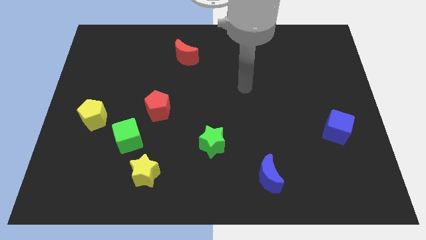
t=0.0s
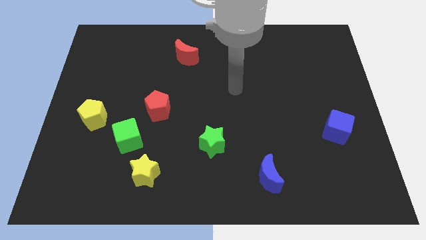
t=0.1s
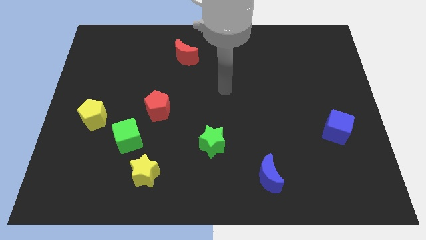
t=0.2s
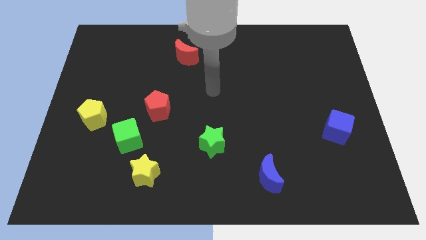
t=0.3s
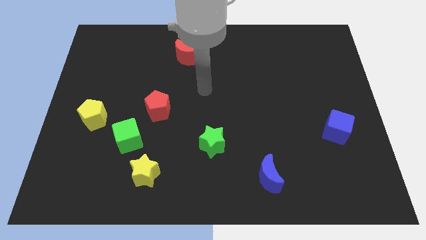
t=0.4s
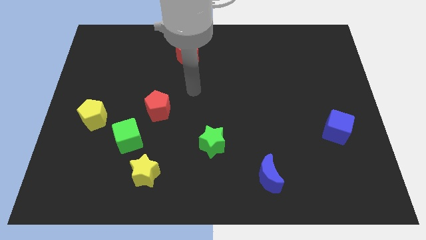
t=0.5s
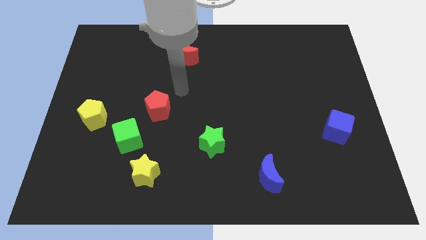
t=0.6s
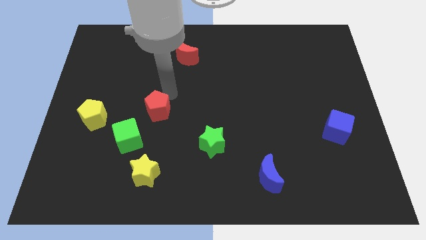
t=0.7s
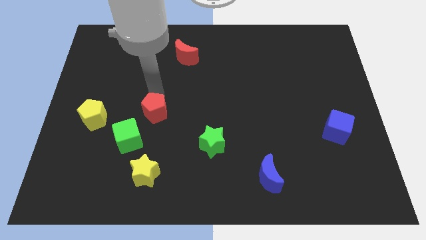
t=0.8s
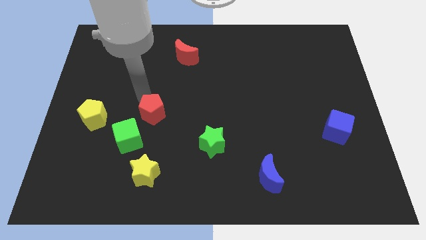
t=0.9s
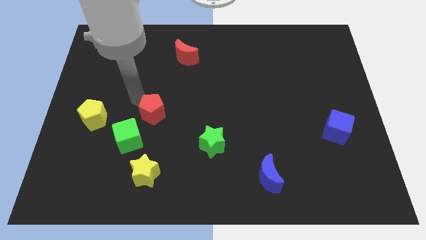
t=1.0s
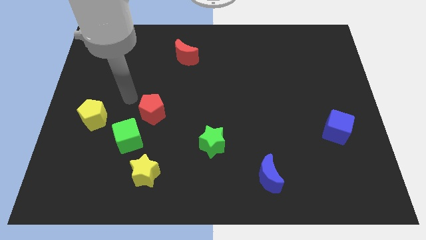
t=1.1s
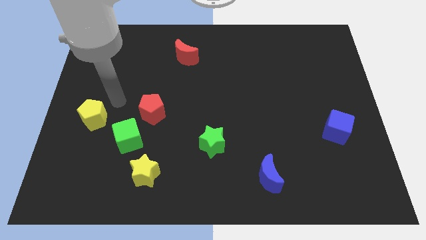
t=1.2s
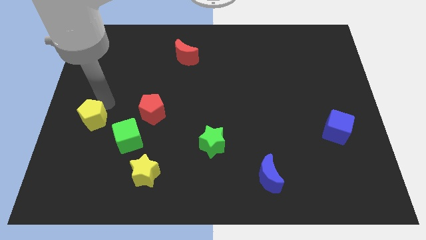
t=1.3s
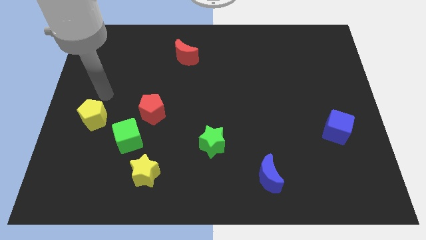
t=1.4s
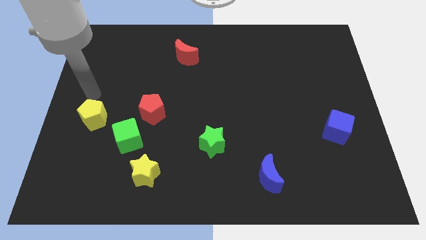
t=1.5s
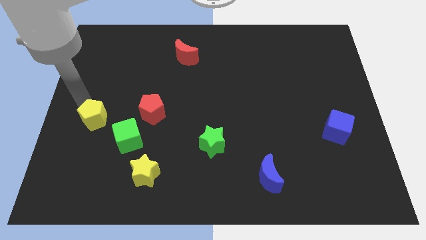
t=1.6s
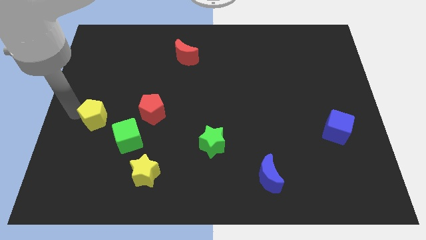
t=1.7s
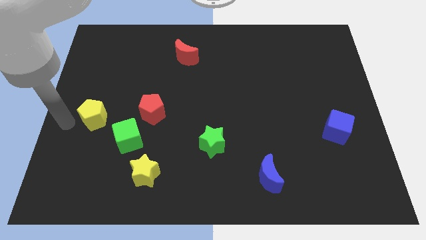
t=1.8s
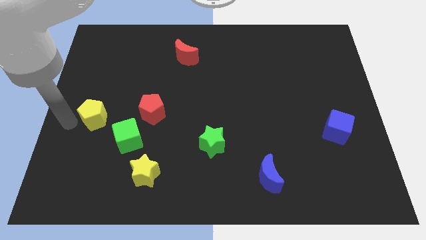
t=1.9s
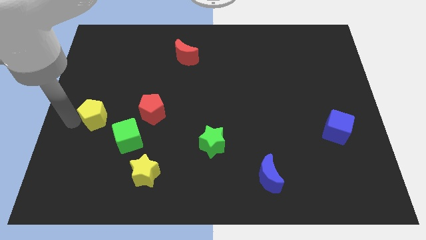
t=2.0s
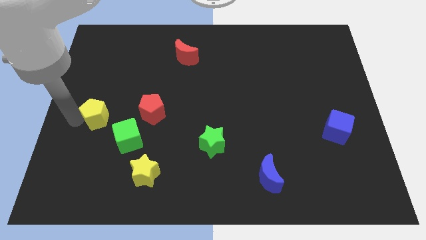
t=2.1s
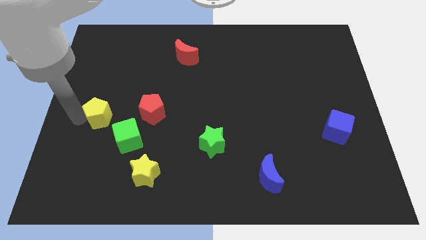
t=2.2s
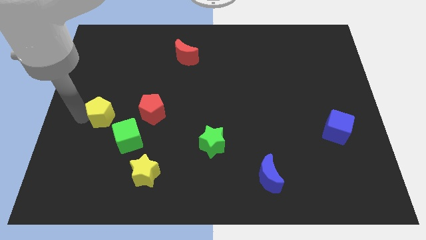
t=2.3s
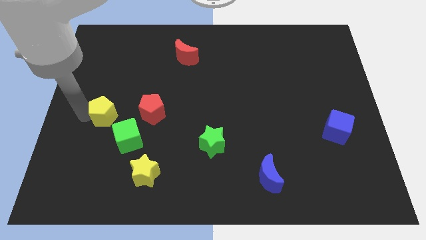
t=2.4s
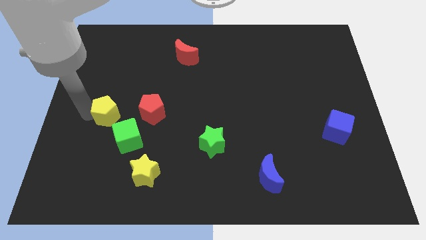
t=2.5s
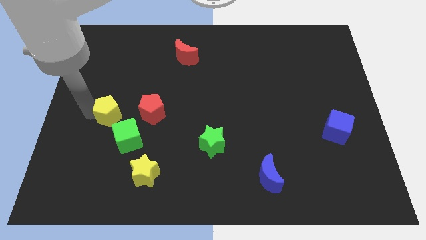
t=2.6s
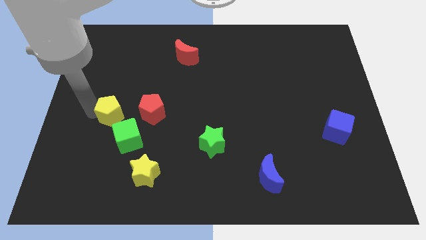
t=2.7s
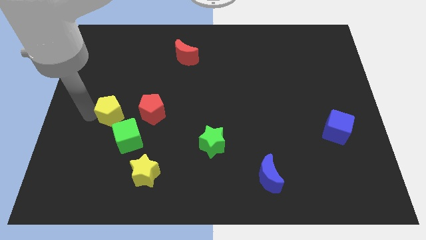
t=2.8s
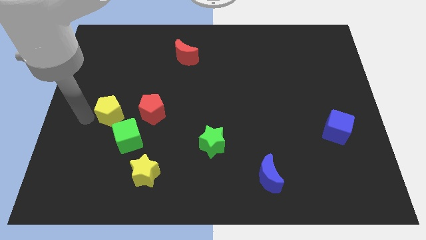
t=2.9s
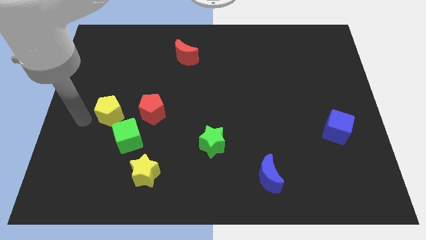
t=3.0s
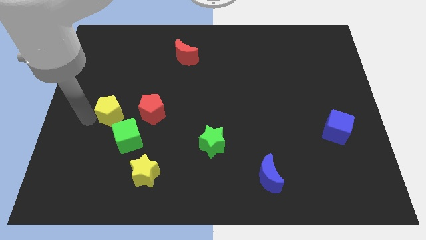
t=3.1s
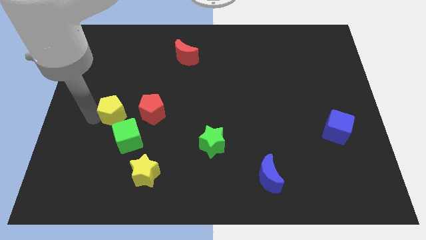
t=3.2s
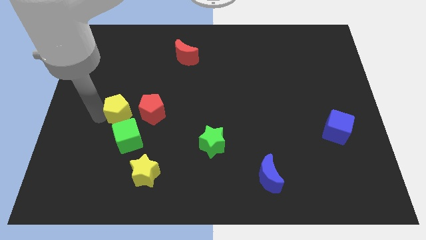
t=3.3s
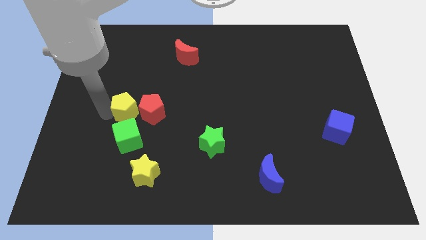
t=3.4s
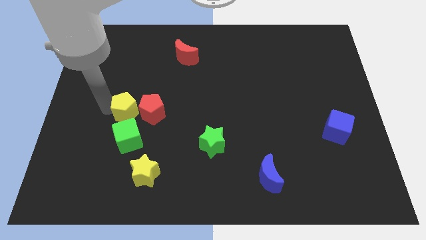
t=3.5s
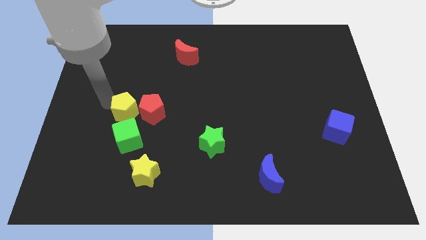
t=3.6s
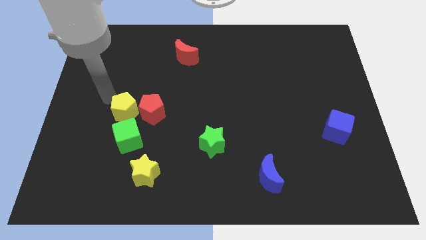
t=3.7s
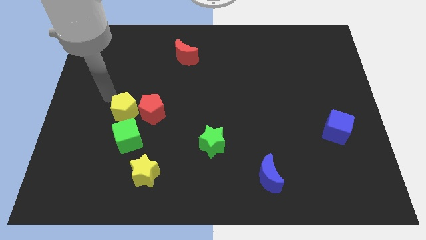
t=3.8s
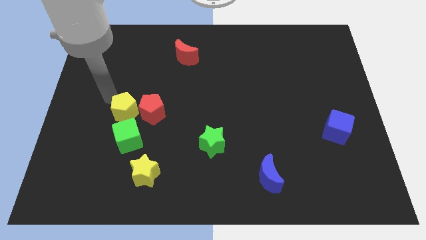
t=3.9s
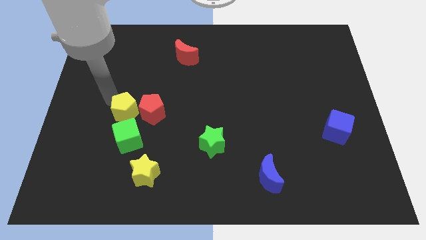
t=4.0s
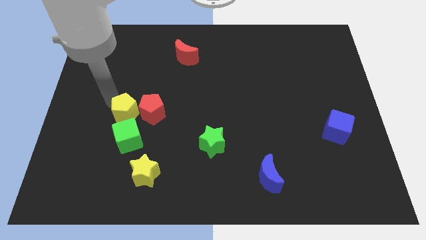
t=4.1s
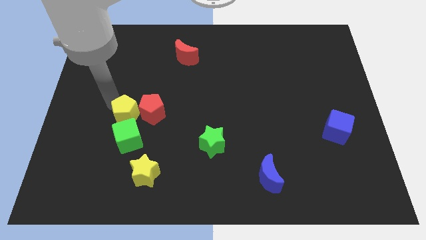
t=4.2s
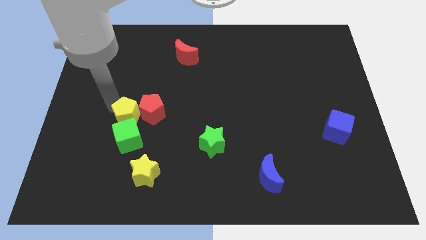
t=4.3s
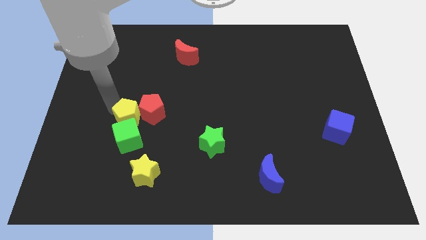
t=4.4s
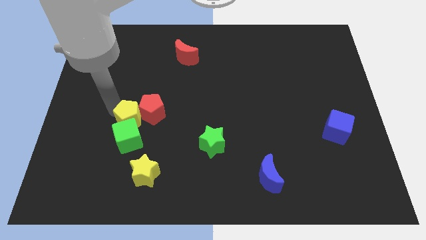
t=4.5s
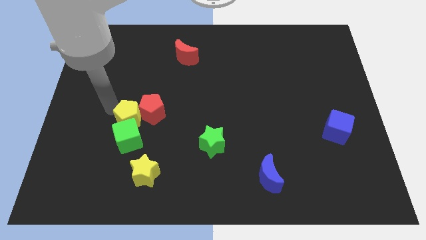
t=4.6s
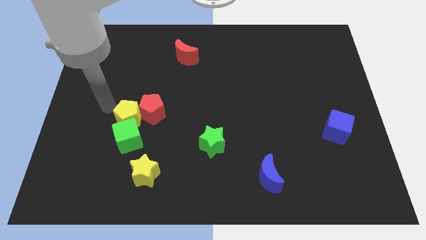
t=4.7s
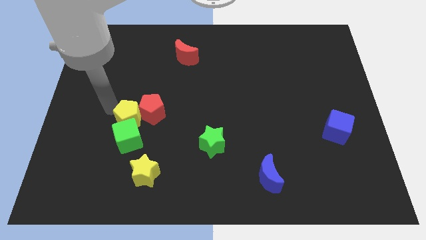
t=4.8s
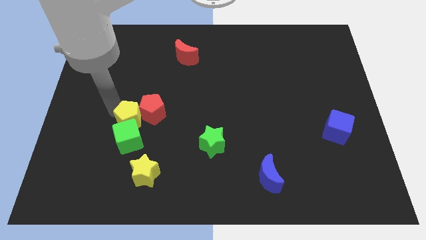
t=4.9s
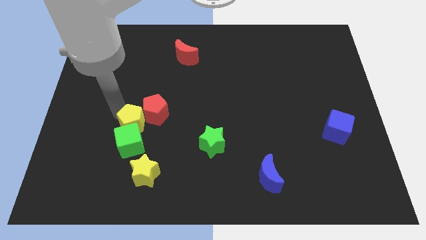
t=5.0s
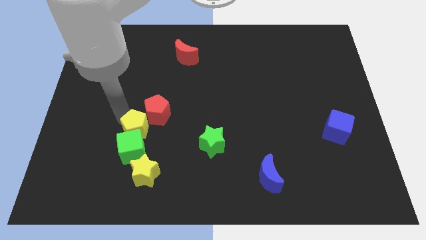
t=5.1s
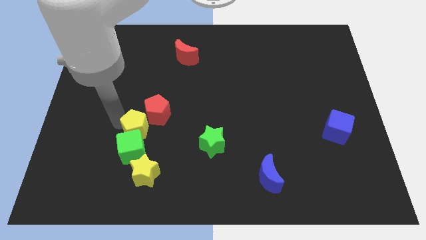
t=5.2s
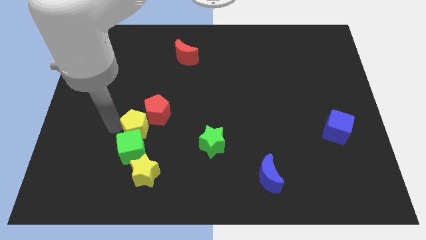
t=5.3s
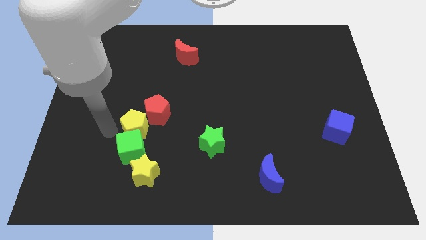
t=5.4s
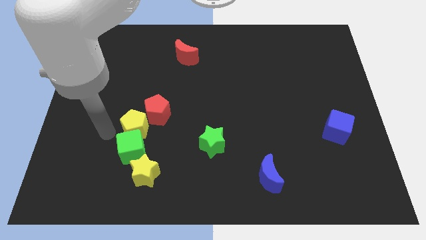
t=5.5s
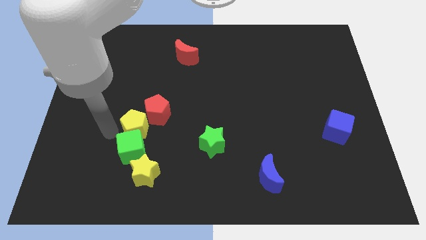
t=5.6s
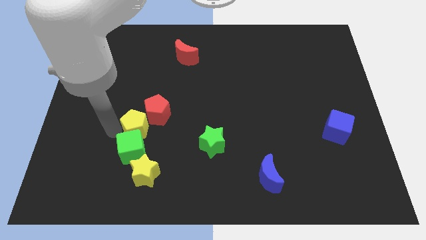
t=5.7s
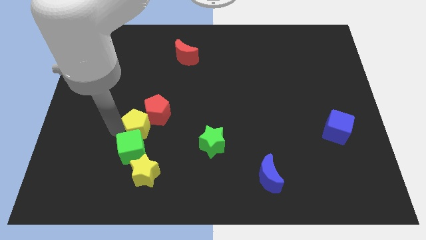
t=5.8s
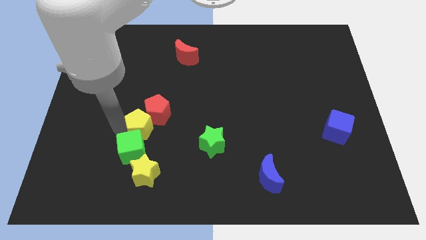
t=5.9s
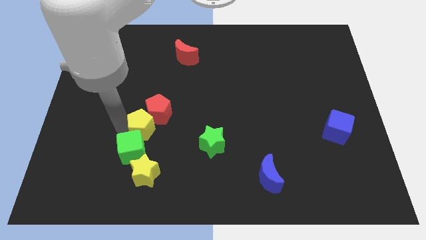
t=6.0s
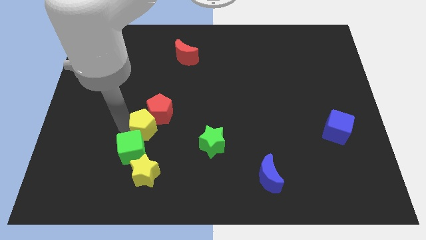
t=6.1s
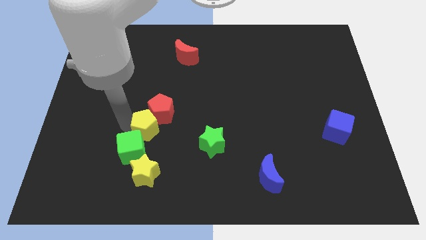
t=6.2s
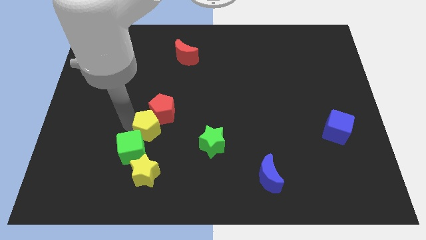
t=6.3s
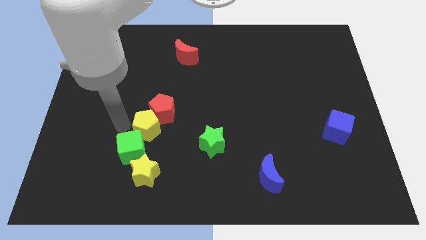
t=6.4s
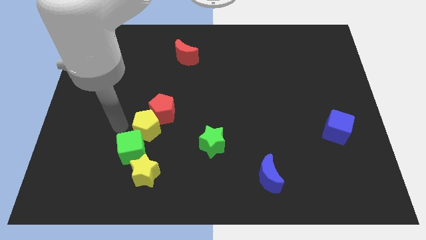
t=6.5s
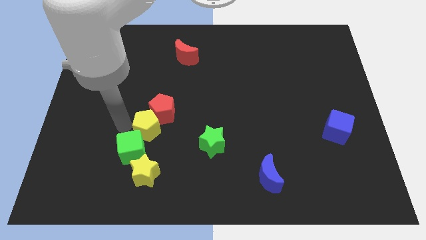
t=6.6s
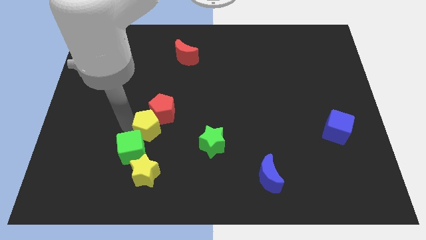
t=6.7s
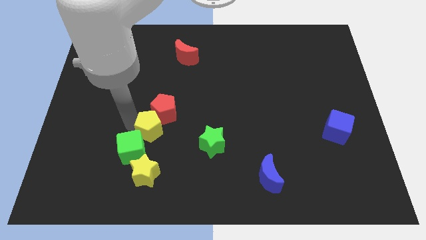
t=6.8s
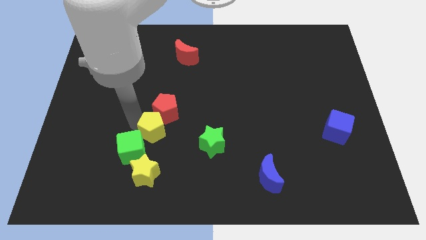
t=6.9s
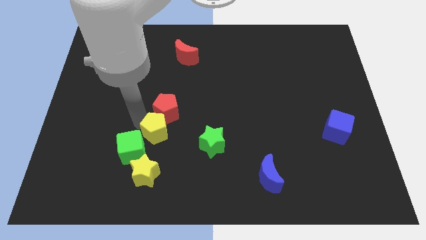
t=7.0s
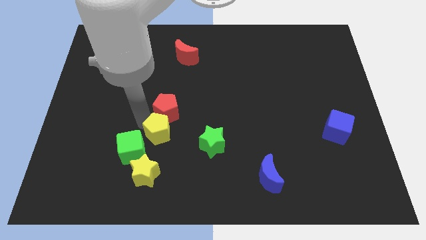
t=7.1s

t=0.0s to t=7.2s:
put the yellow pentagon diagonally down and to the right of the red pentagon
